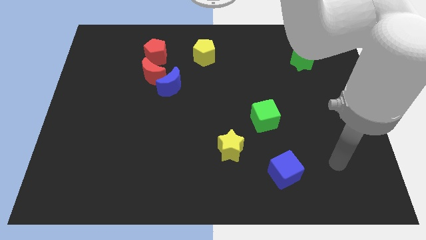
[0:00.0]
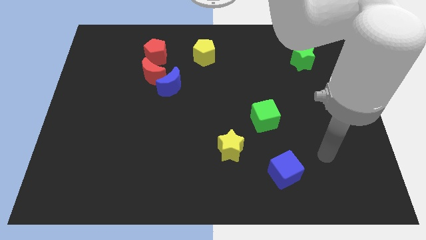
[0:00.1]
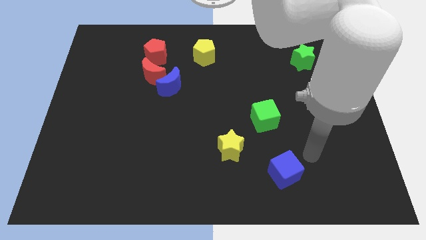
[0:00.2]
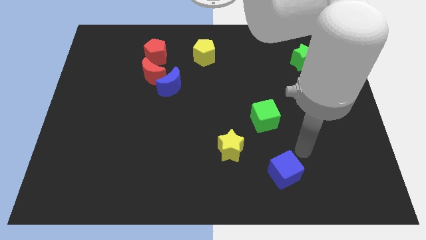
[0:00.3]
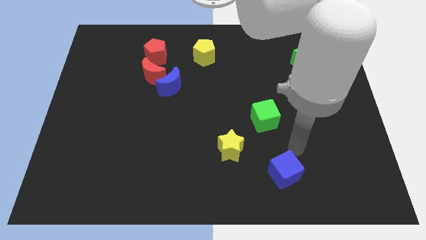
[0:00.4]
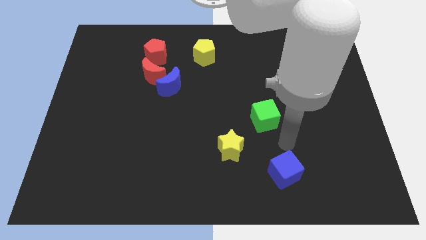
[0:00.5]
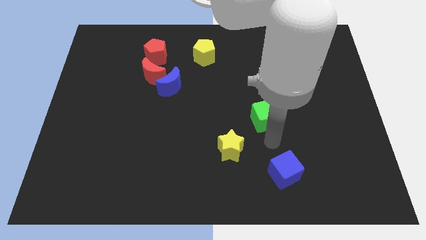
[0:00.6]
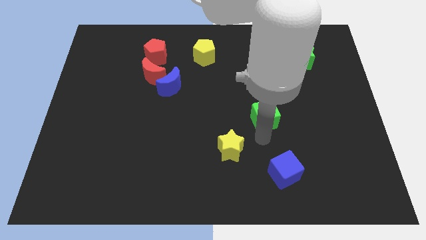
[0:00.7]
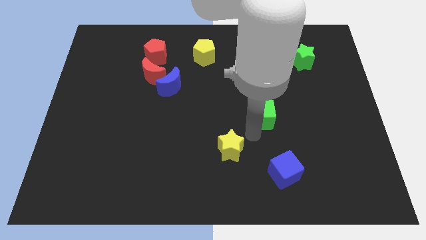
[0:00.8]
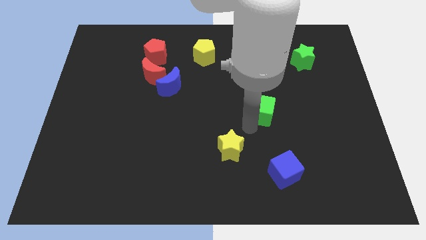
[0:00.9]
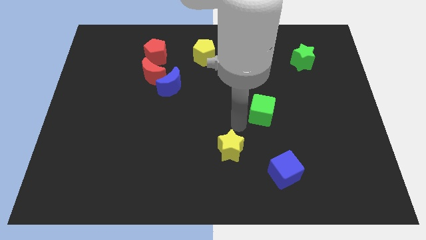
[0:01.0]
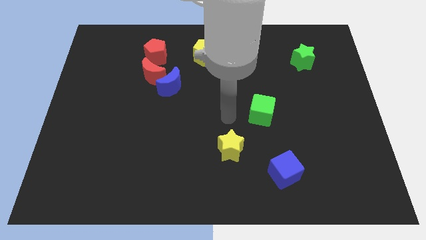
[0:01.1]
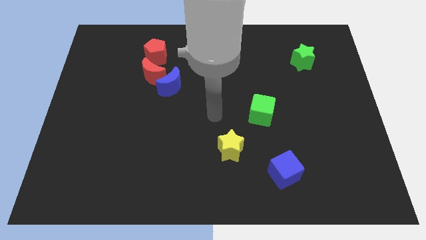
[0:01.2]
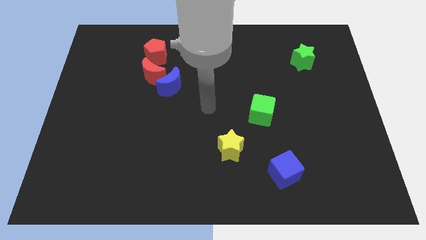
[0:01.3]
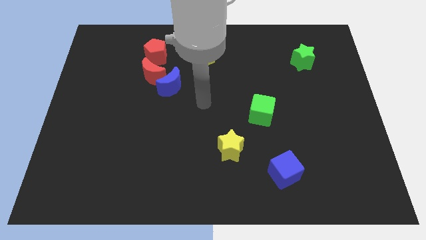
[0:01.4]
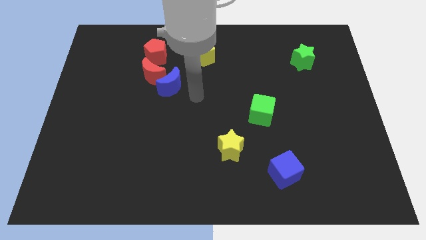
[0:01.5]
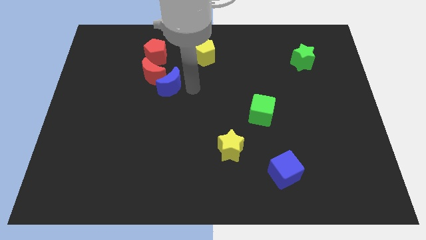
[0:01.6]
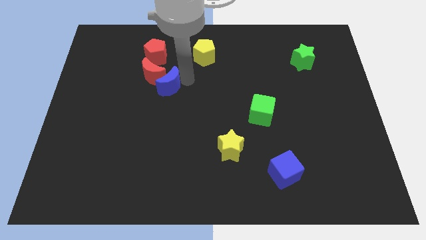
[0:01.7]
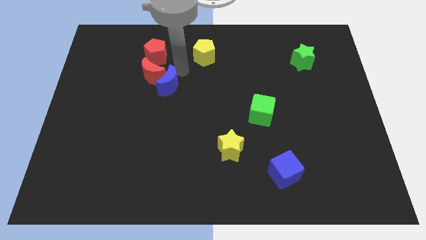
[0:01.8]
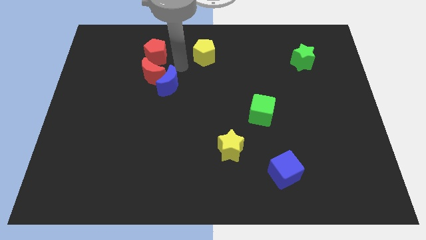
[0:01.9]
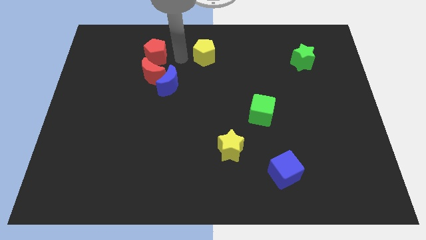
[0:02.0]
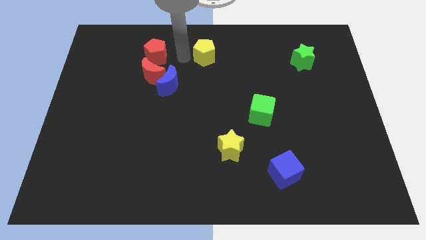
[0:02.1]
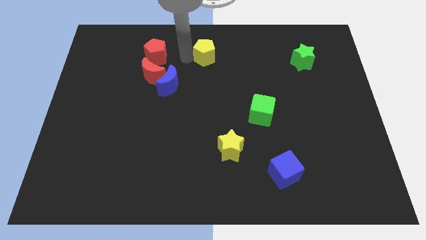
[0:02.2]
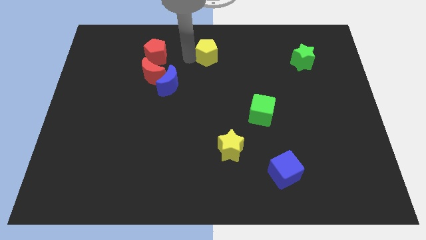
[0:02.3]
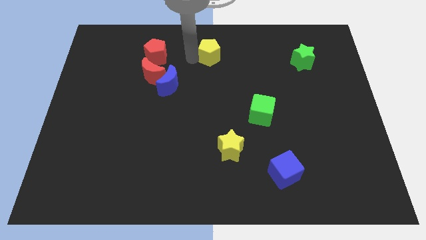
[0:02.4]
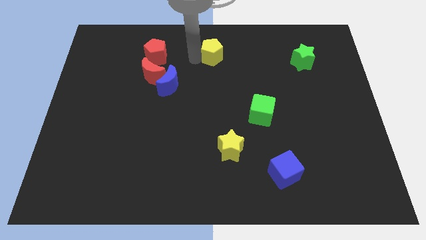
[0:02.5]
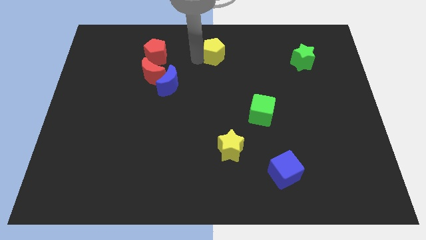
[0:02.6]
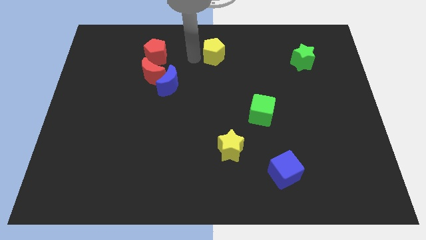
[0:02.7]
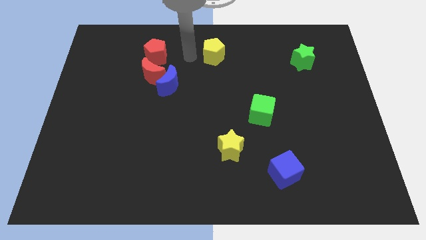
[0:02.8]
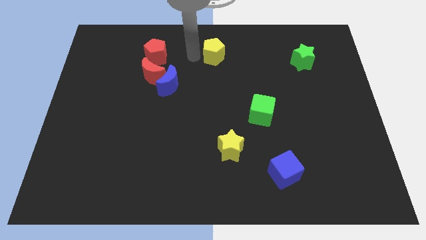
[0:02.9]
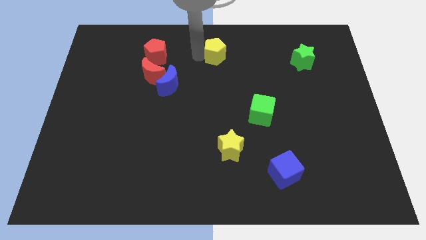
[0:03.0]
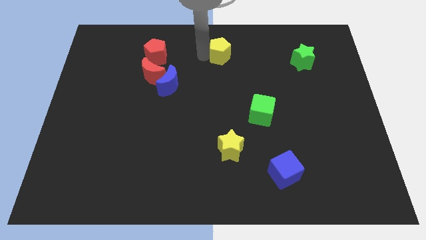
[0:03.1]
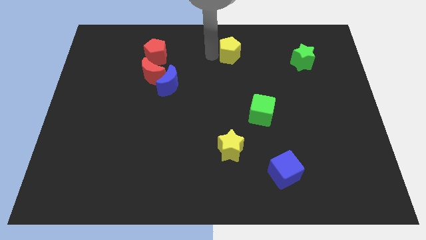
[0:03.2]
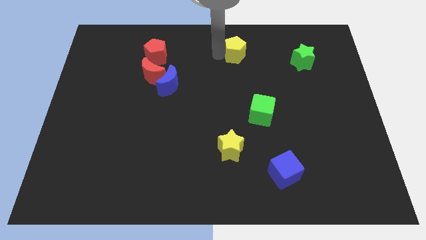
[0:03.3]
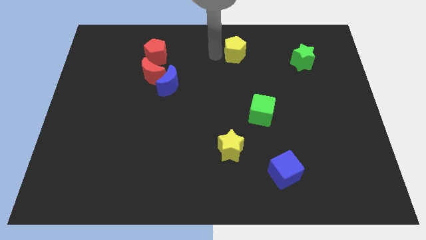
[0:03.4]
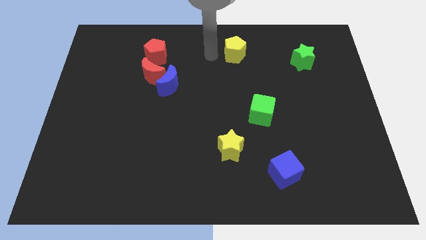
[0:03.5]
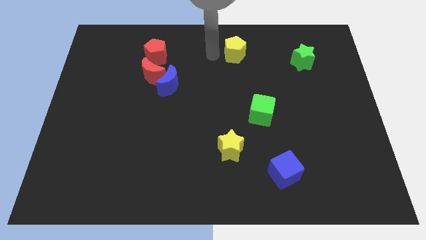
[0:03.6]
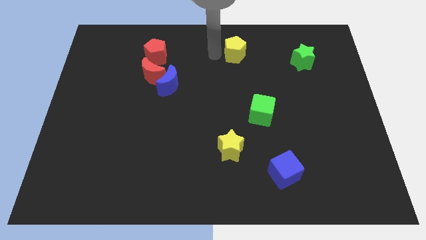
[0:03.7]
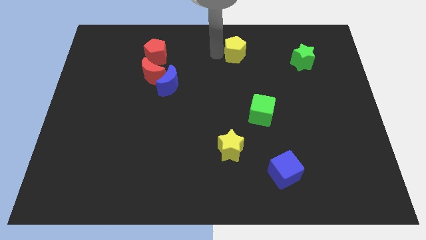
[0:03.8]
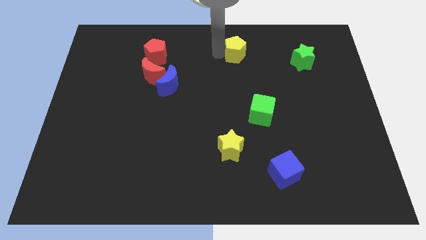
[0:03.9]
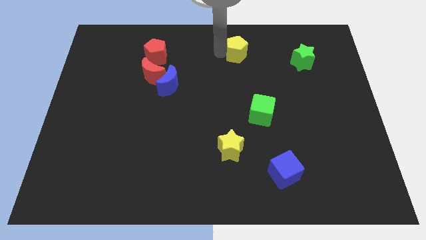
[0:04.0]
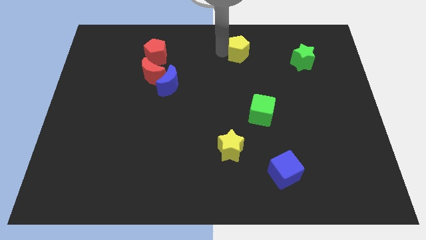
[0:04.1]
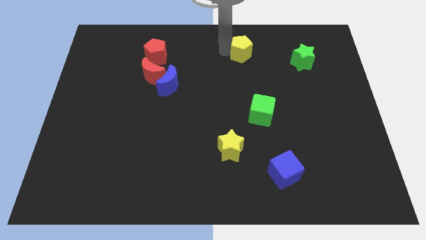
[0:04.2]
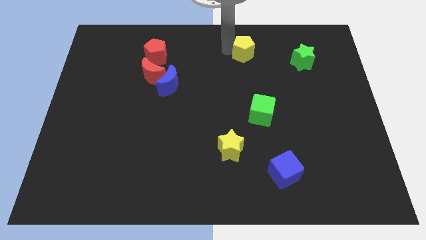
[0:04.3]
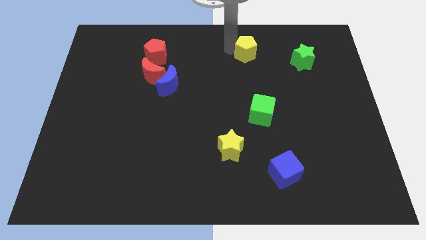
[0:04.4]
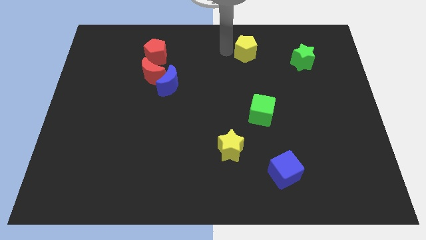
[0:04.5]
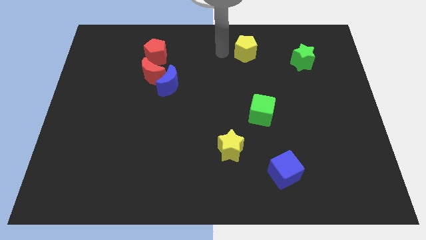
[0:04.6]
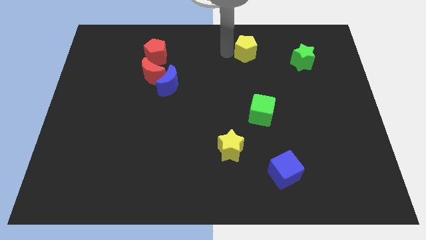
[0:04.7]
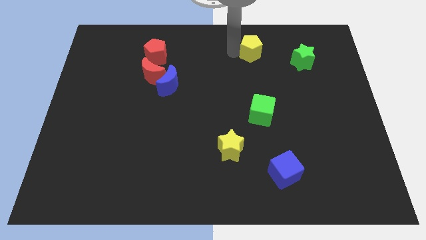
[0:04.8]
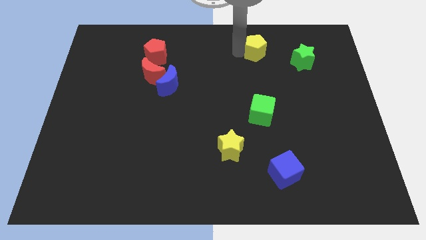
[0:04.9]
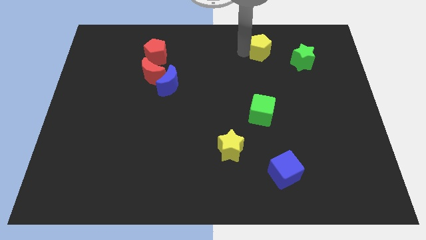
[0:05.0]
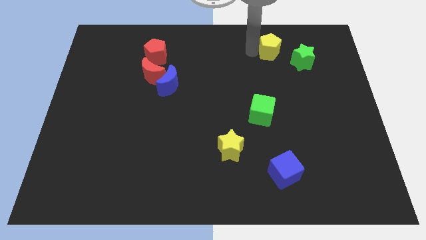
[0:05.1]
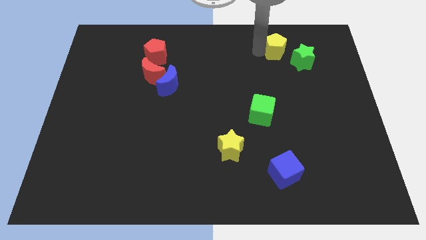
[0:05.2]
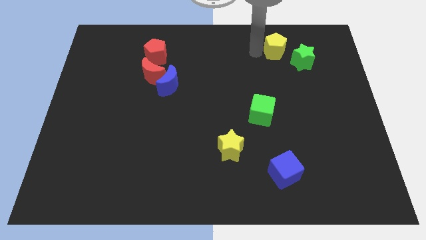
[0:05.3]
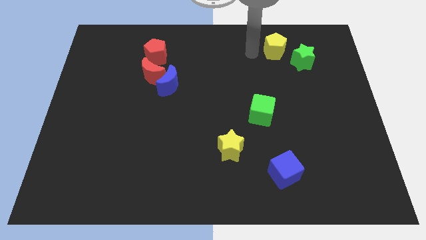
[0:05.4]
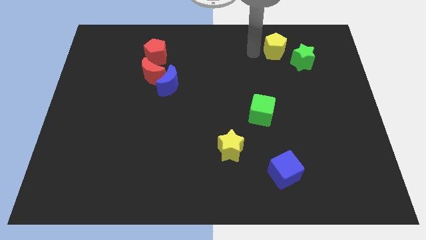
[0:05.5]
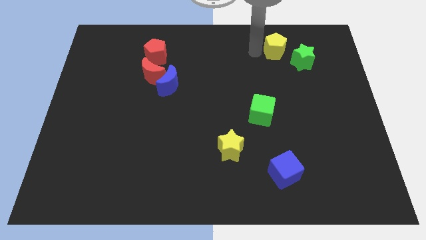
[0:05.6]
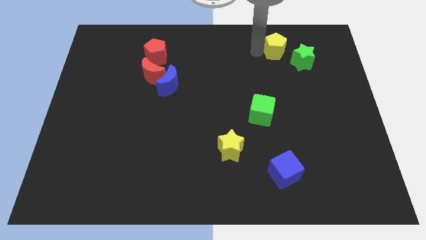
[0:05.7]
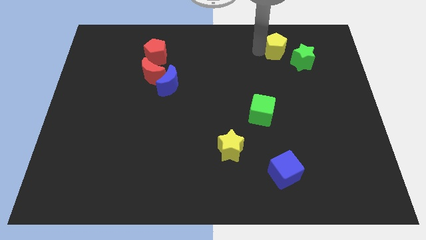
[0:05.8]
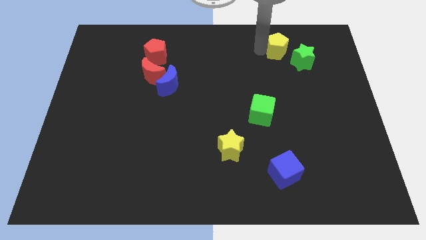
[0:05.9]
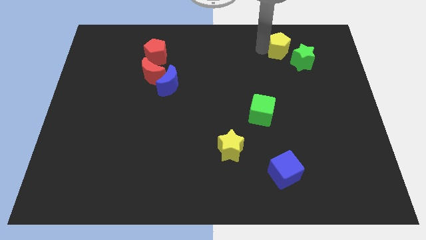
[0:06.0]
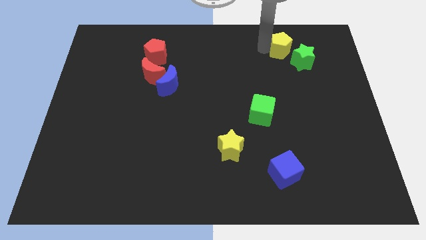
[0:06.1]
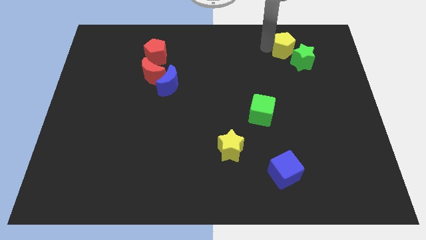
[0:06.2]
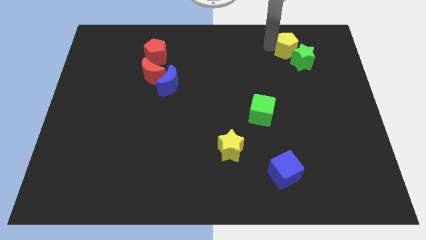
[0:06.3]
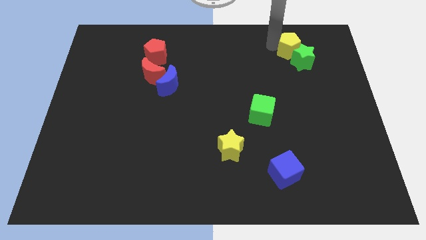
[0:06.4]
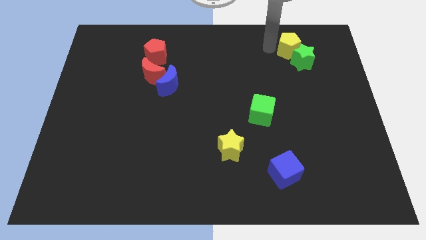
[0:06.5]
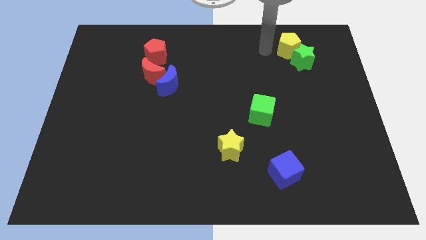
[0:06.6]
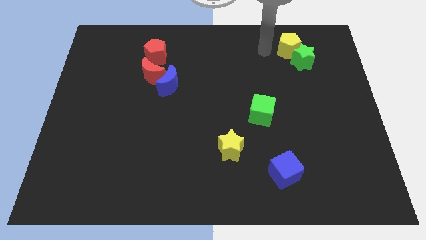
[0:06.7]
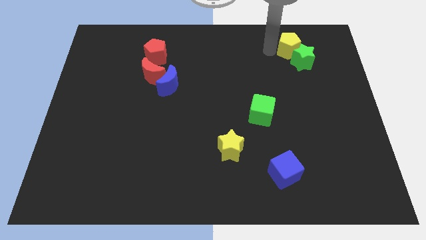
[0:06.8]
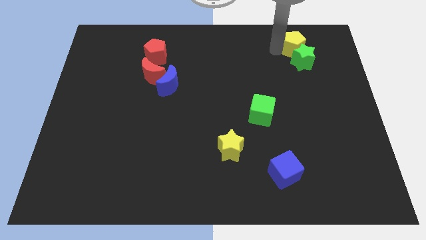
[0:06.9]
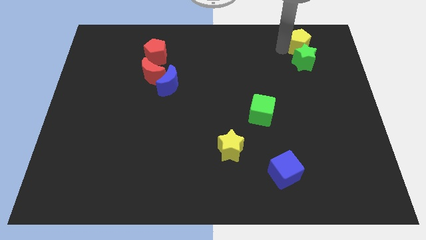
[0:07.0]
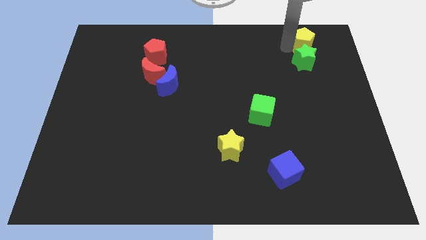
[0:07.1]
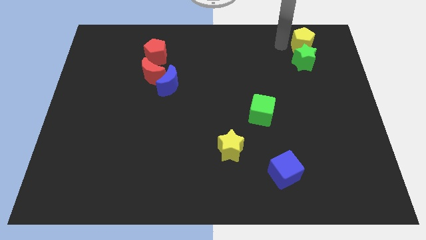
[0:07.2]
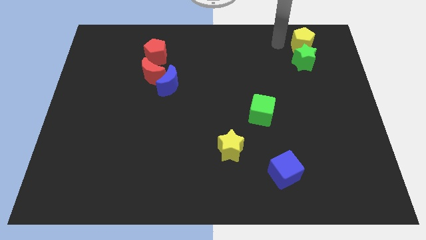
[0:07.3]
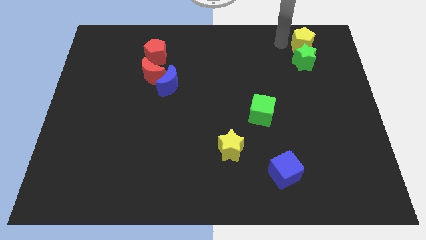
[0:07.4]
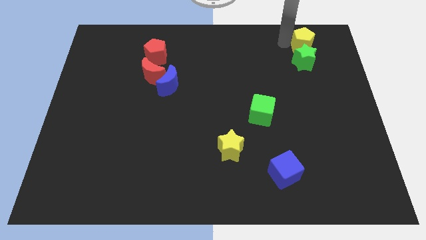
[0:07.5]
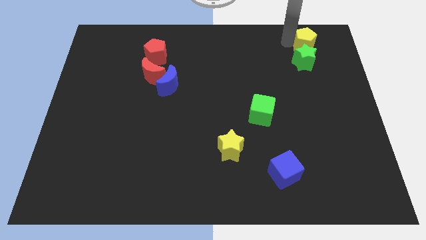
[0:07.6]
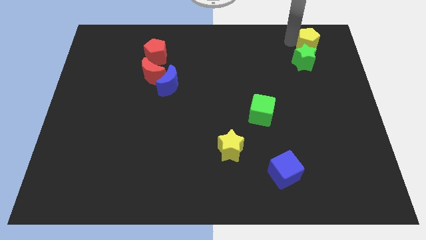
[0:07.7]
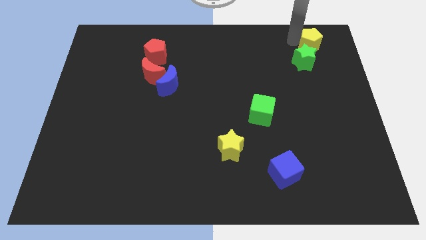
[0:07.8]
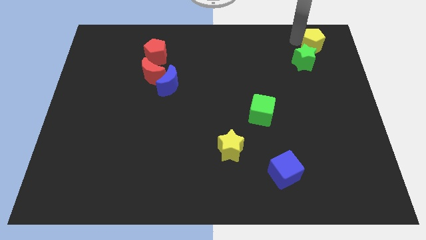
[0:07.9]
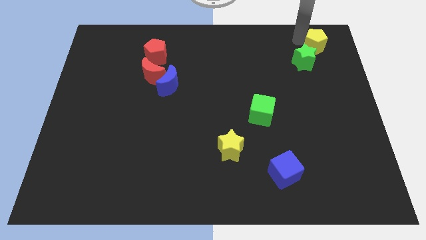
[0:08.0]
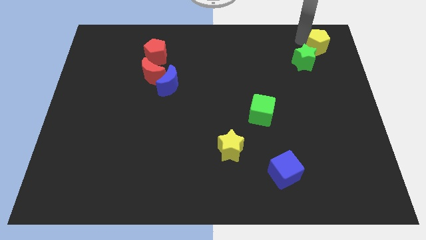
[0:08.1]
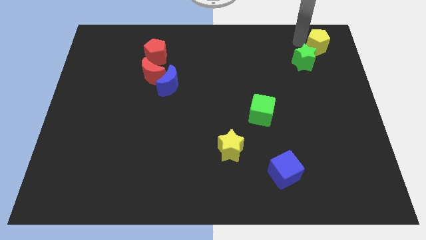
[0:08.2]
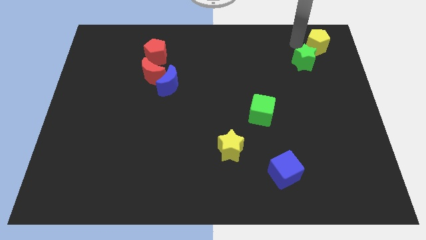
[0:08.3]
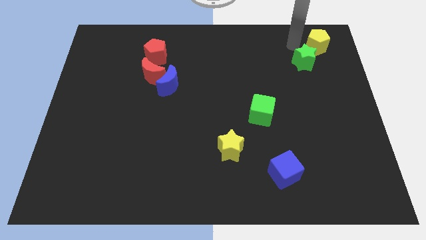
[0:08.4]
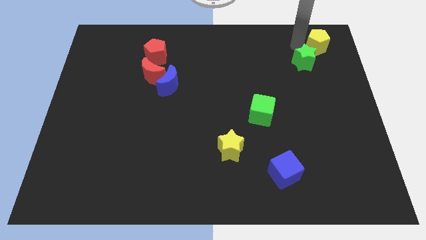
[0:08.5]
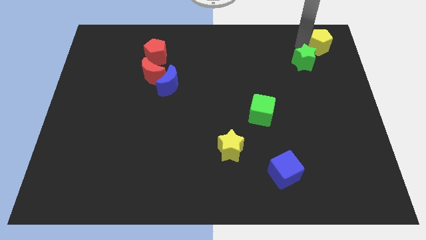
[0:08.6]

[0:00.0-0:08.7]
move the yellow pentagon to the top right of the board
